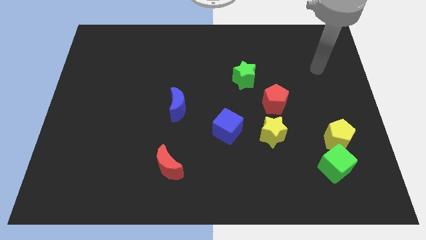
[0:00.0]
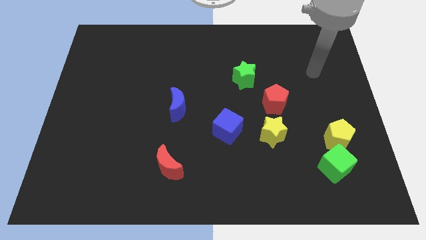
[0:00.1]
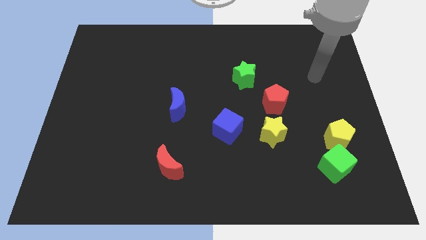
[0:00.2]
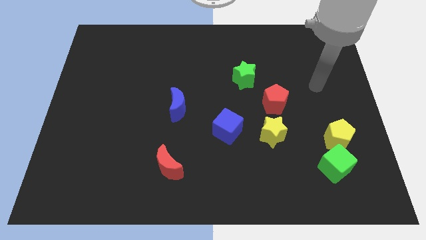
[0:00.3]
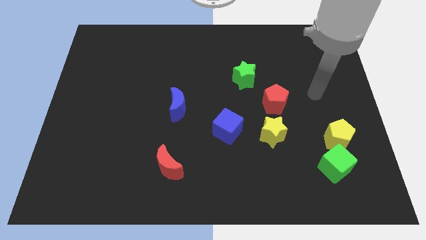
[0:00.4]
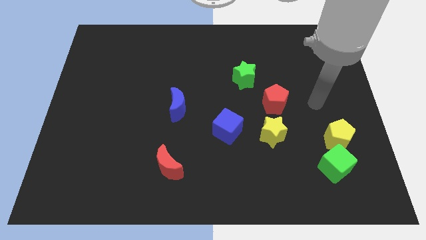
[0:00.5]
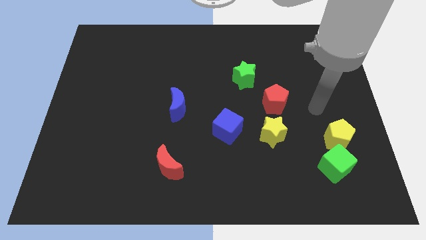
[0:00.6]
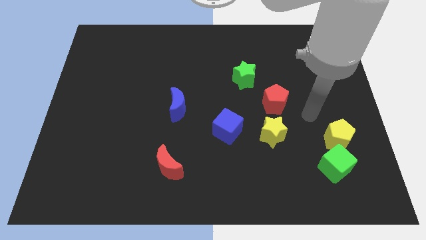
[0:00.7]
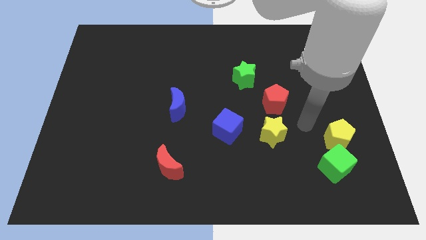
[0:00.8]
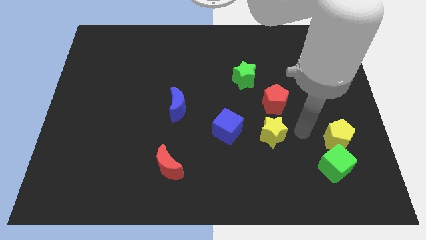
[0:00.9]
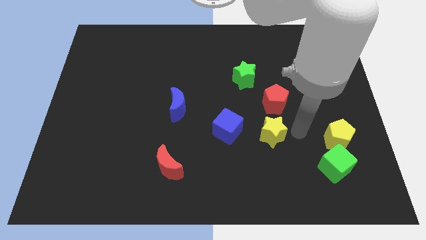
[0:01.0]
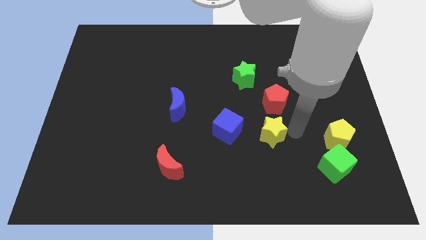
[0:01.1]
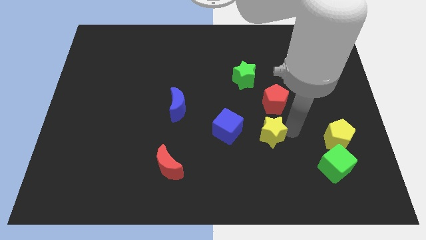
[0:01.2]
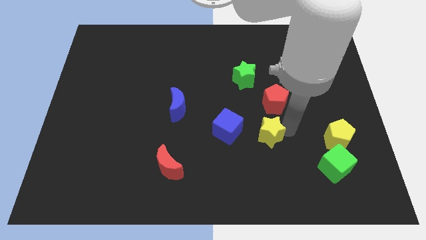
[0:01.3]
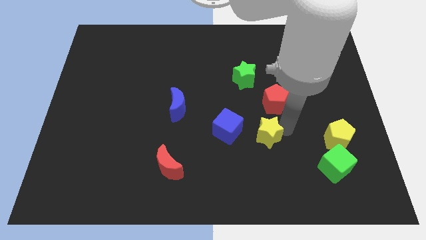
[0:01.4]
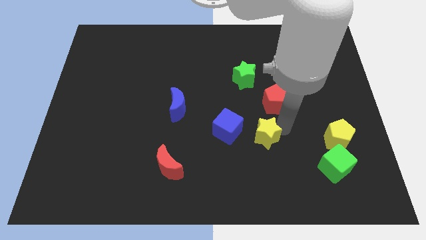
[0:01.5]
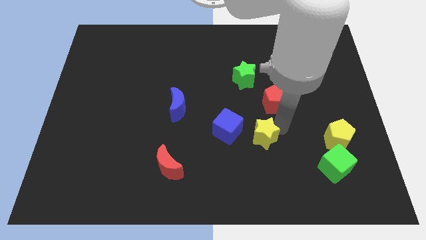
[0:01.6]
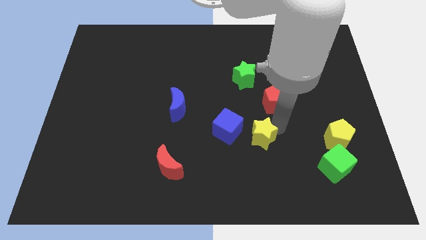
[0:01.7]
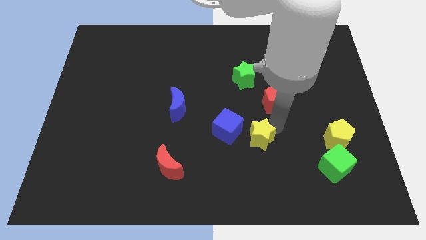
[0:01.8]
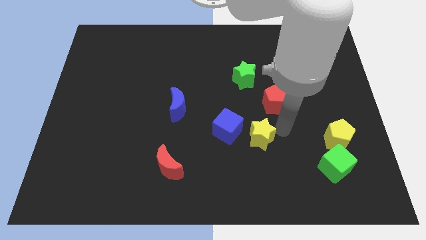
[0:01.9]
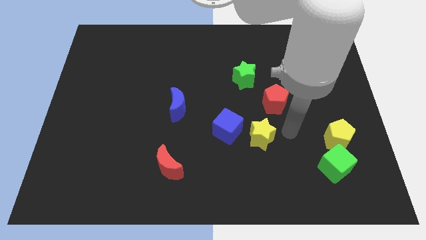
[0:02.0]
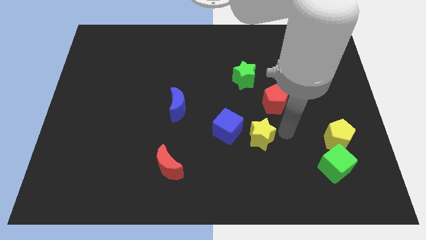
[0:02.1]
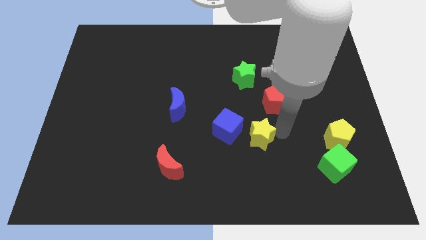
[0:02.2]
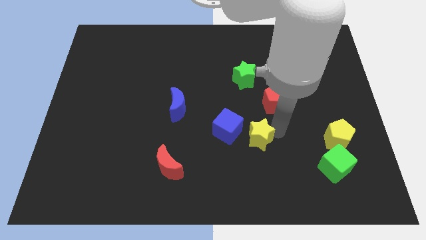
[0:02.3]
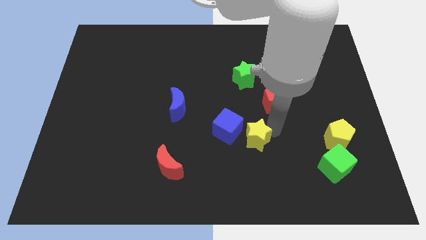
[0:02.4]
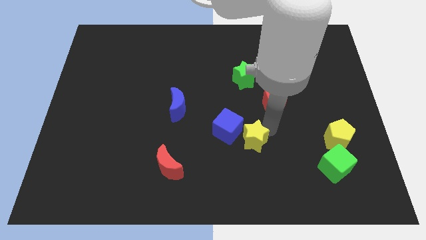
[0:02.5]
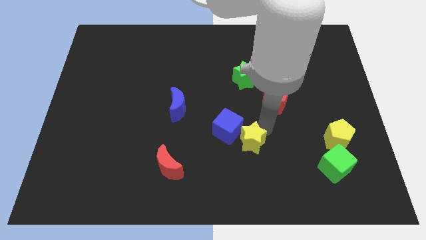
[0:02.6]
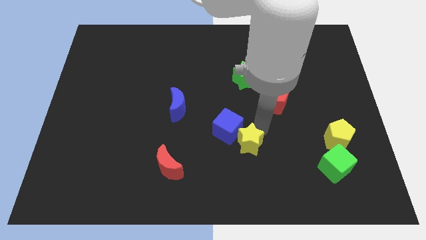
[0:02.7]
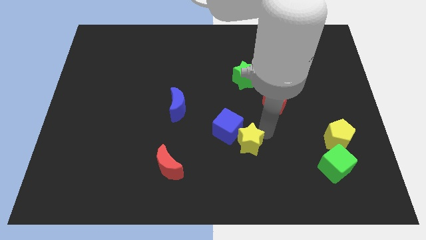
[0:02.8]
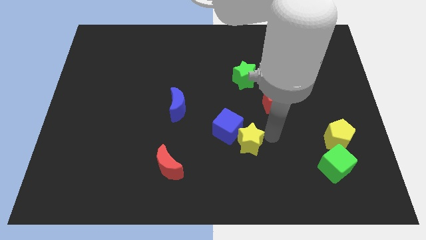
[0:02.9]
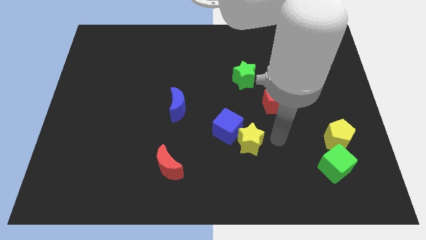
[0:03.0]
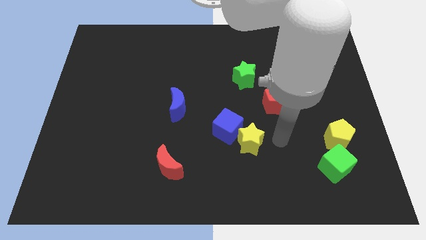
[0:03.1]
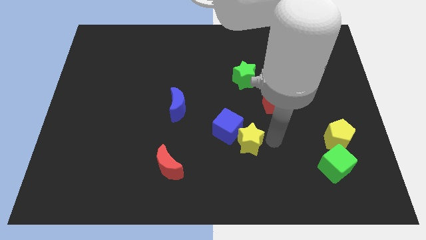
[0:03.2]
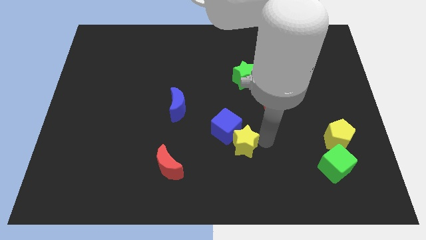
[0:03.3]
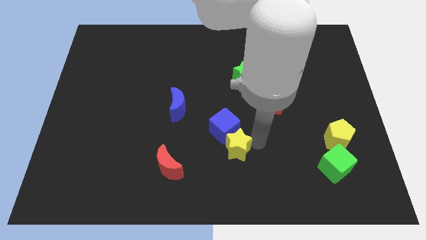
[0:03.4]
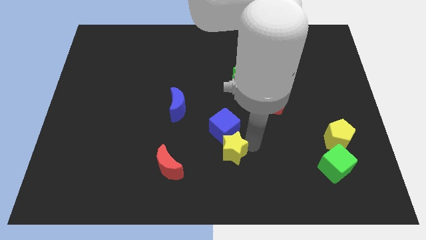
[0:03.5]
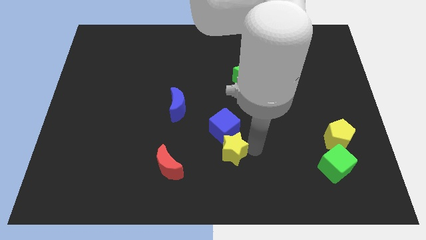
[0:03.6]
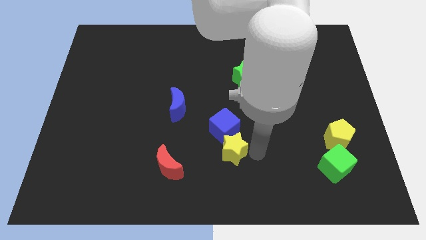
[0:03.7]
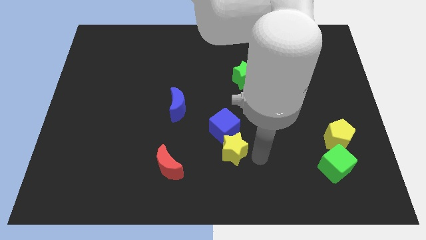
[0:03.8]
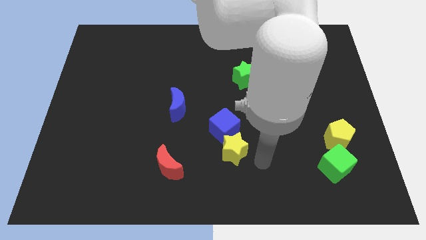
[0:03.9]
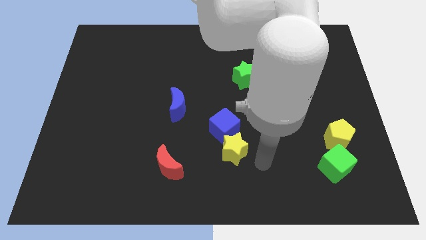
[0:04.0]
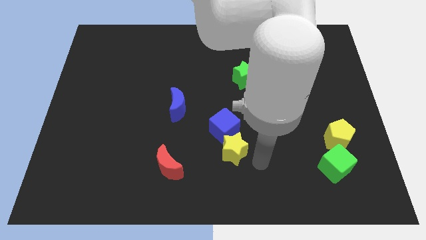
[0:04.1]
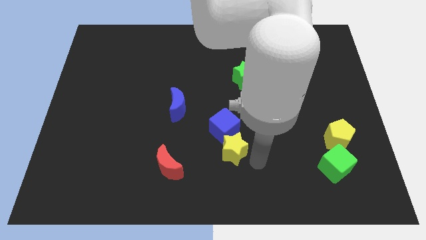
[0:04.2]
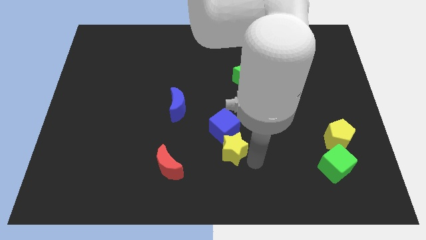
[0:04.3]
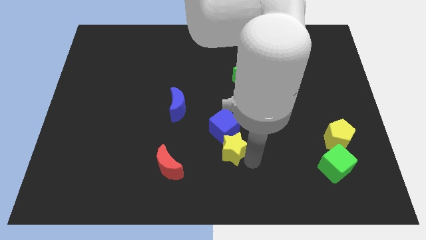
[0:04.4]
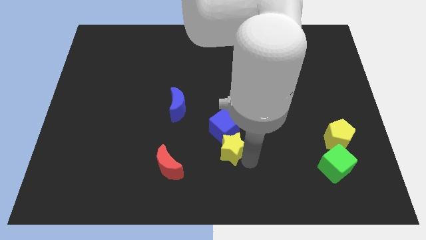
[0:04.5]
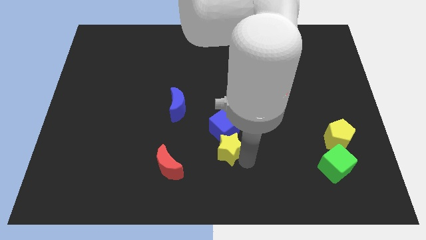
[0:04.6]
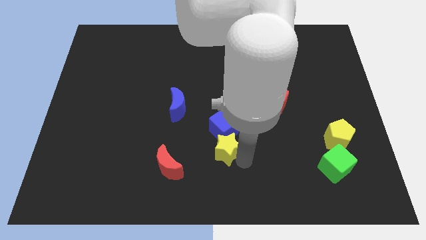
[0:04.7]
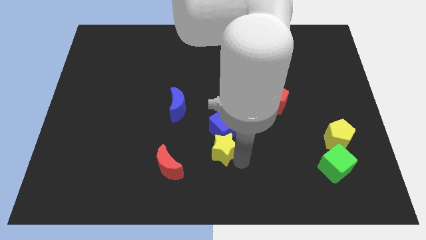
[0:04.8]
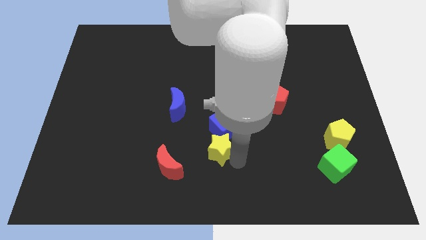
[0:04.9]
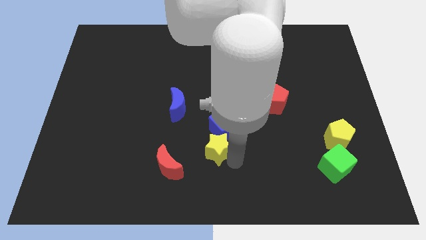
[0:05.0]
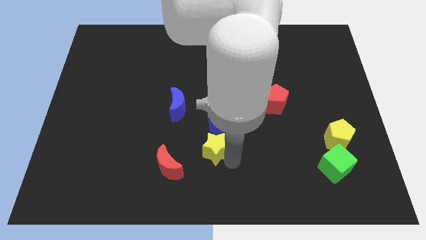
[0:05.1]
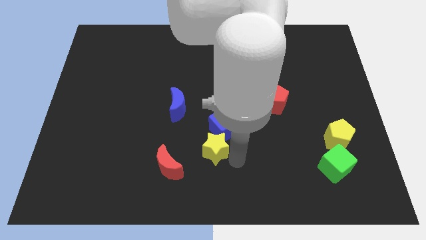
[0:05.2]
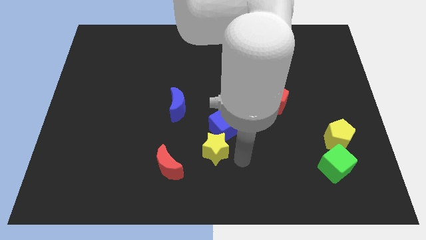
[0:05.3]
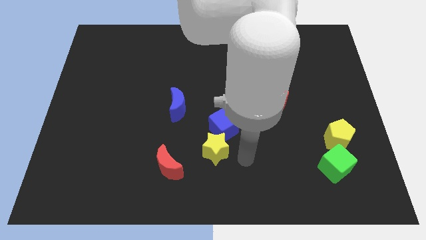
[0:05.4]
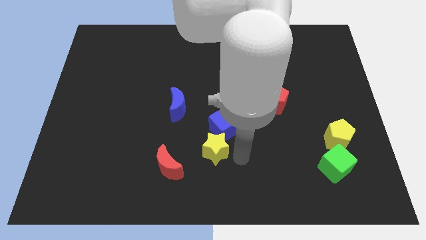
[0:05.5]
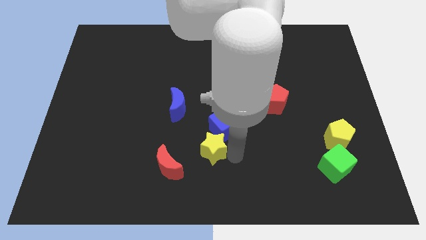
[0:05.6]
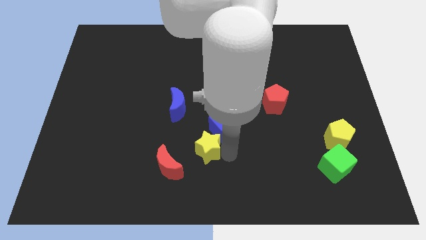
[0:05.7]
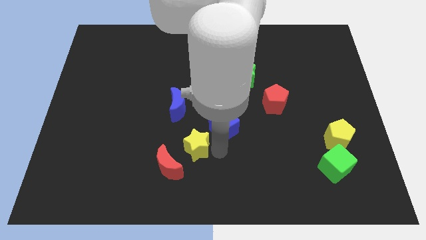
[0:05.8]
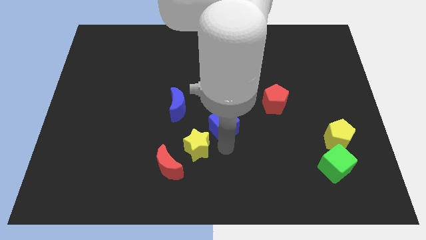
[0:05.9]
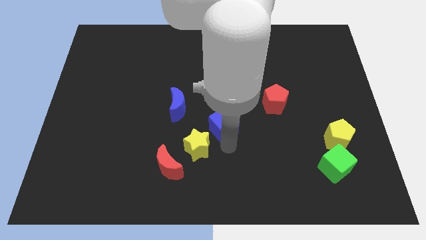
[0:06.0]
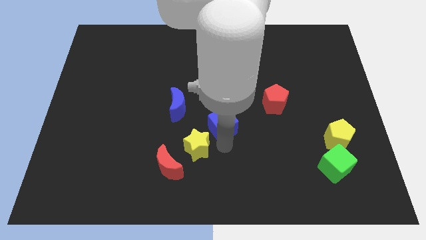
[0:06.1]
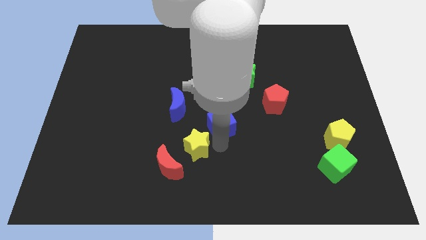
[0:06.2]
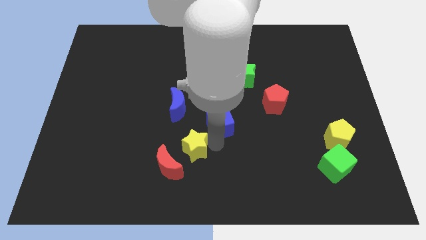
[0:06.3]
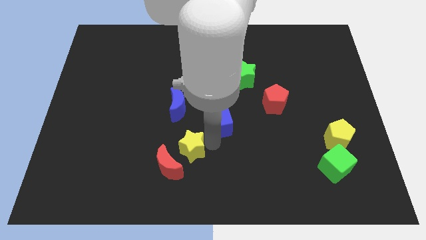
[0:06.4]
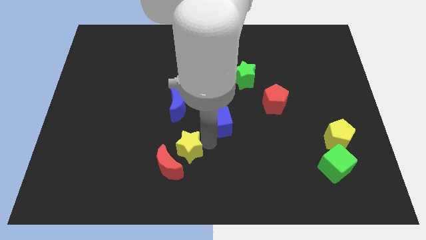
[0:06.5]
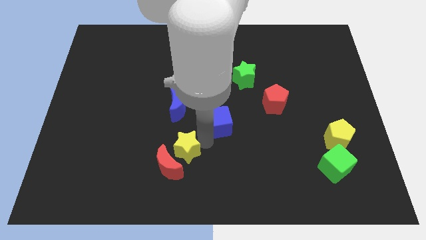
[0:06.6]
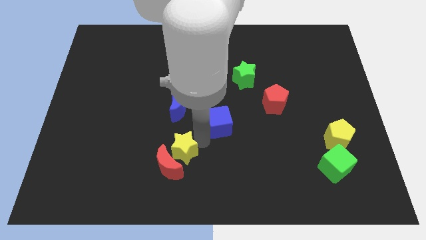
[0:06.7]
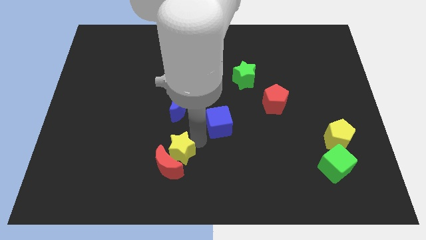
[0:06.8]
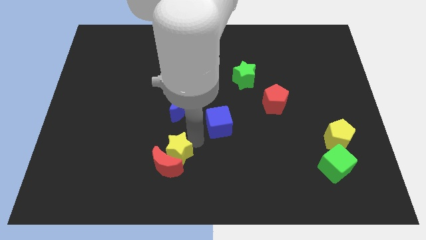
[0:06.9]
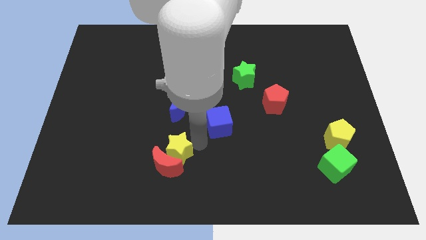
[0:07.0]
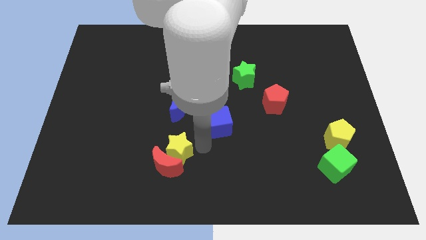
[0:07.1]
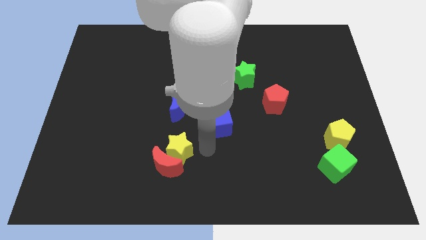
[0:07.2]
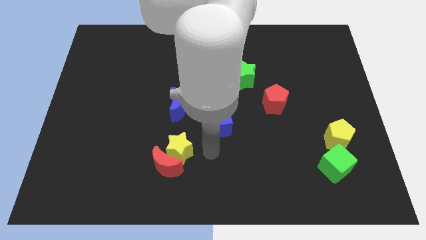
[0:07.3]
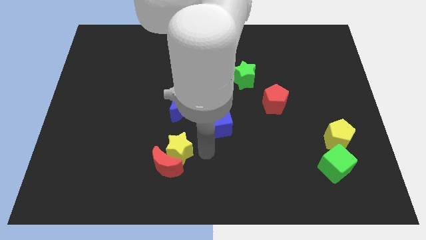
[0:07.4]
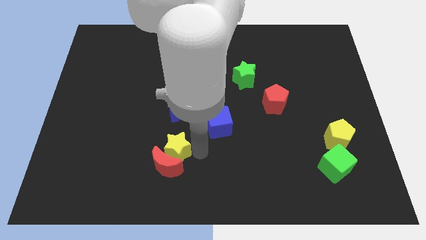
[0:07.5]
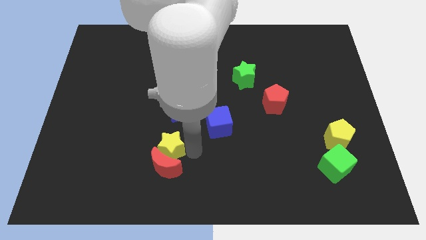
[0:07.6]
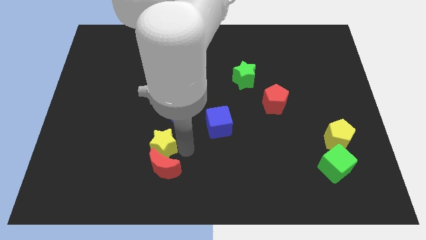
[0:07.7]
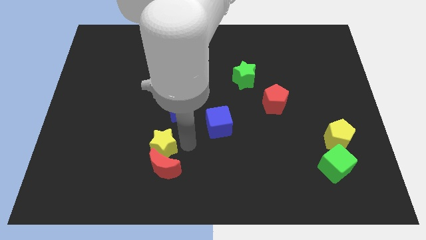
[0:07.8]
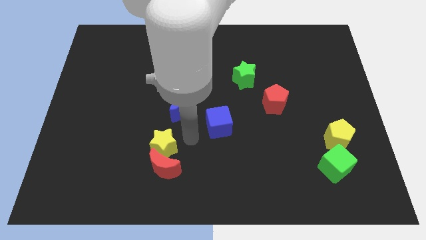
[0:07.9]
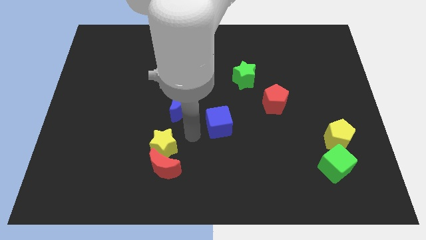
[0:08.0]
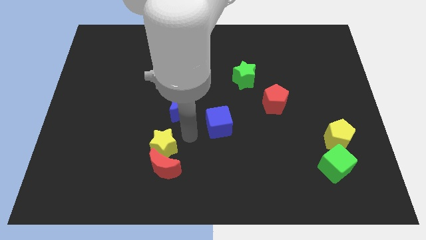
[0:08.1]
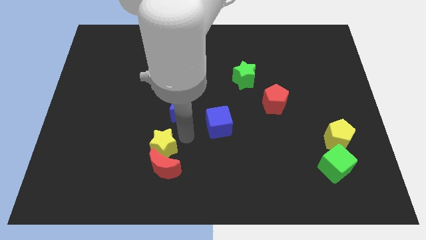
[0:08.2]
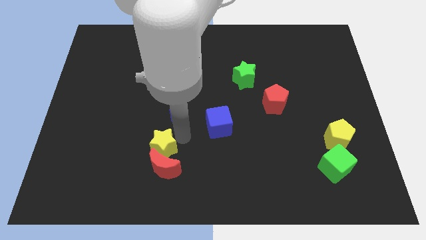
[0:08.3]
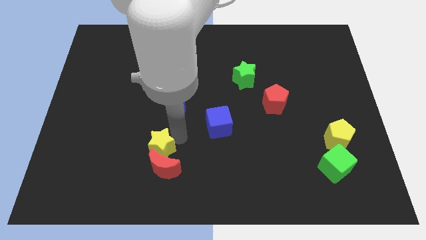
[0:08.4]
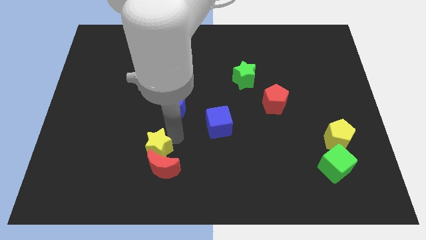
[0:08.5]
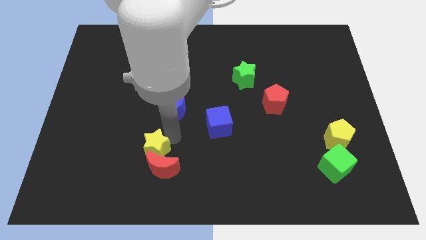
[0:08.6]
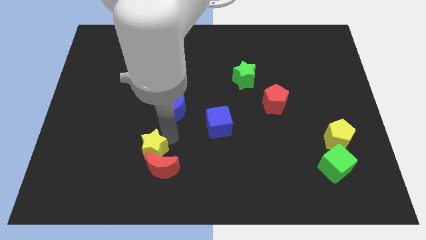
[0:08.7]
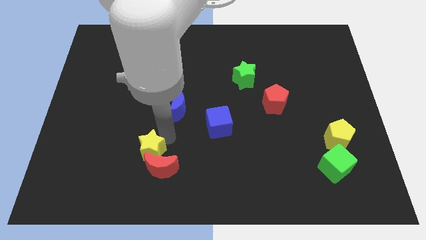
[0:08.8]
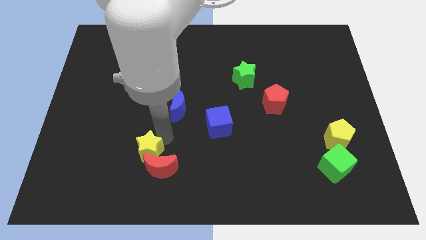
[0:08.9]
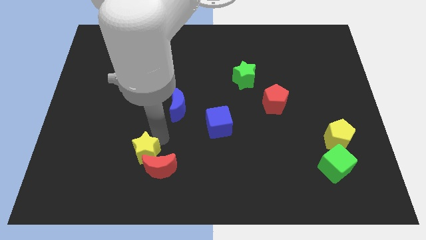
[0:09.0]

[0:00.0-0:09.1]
push the yellow star to the left of the red moon
